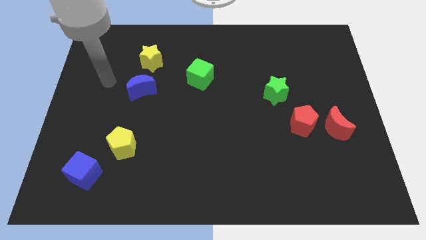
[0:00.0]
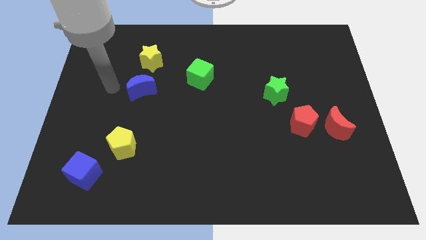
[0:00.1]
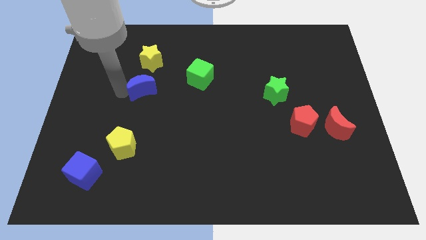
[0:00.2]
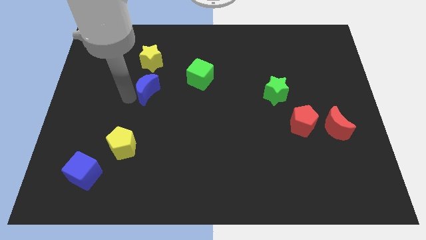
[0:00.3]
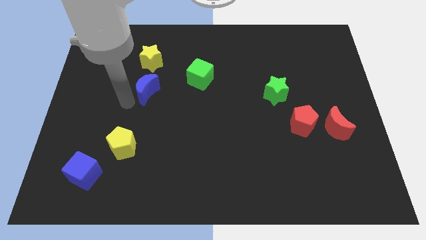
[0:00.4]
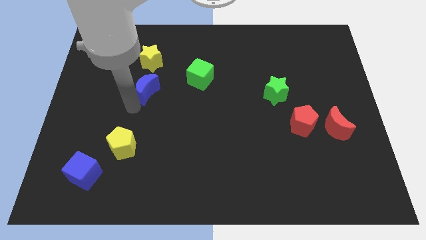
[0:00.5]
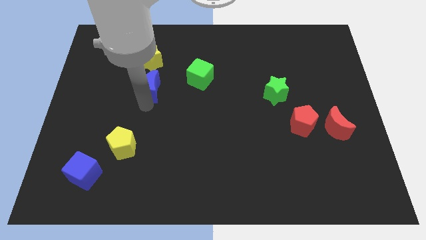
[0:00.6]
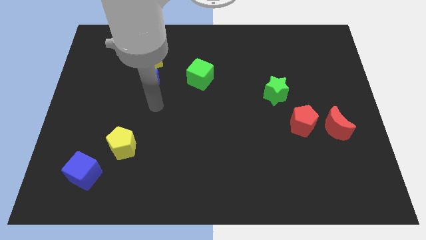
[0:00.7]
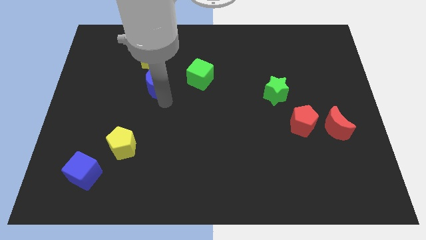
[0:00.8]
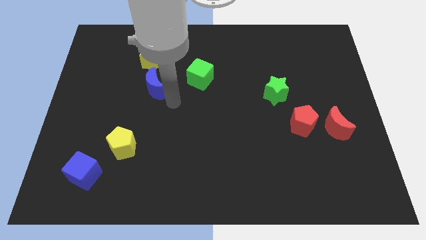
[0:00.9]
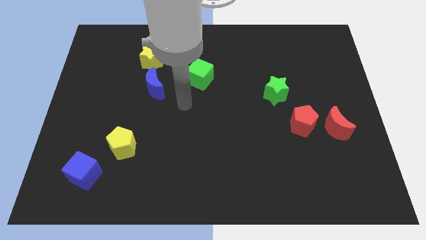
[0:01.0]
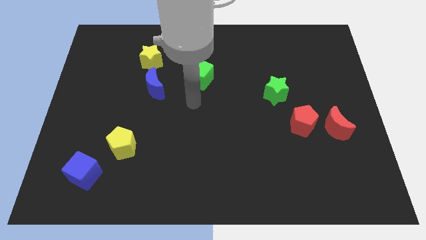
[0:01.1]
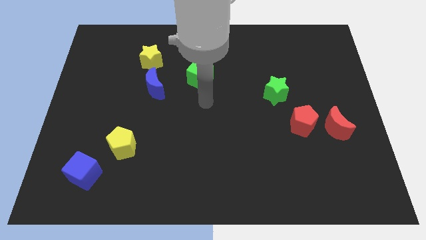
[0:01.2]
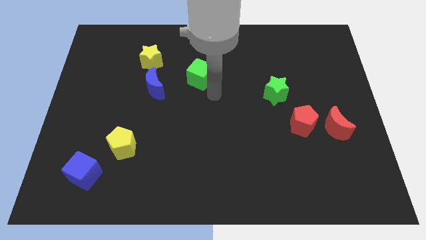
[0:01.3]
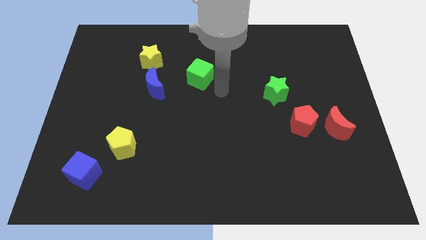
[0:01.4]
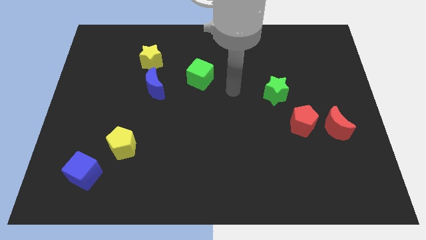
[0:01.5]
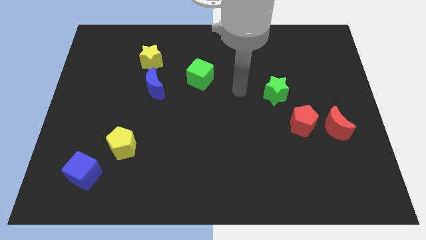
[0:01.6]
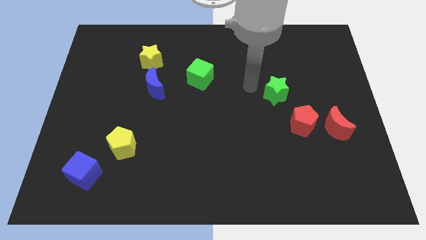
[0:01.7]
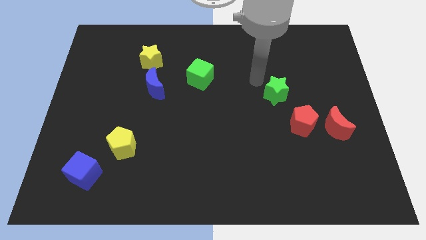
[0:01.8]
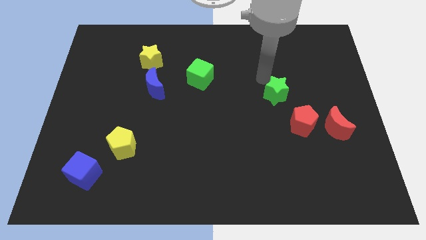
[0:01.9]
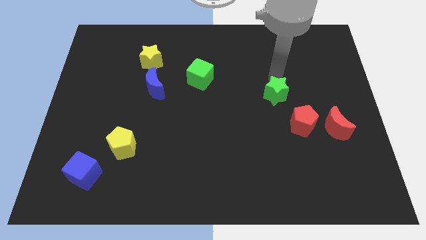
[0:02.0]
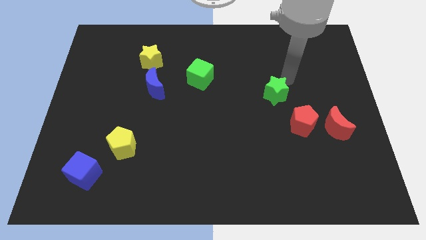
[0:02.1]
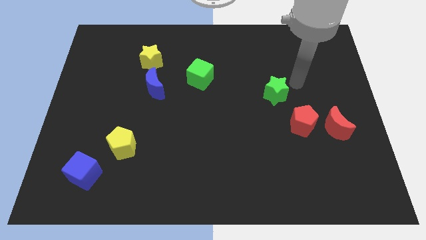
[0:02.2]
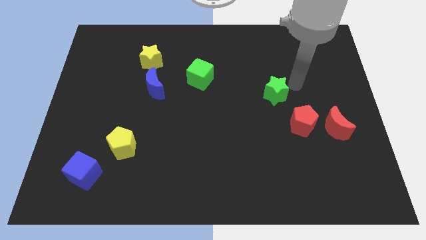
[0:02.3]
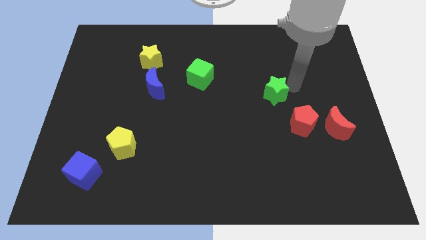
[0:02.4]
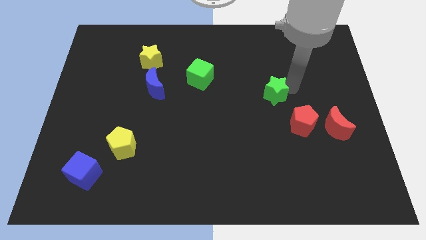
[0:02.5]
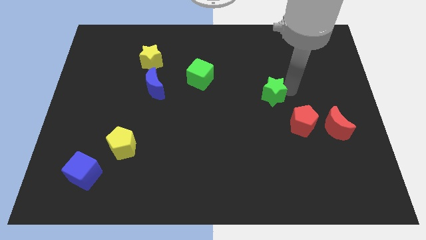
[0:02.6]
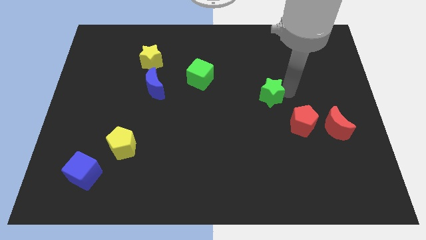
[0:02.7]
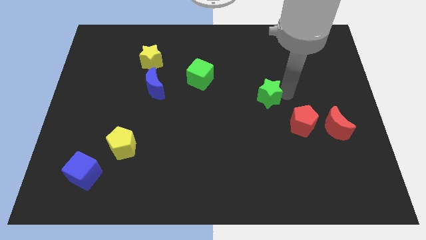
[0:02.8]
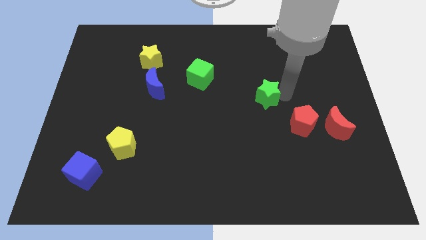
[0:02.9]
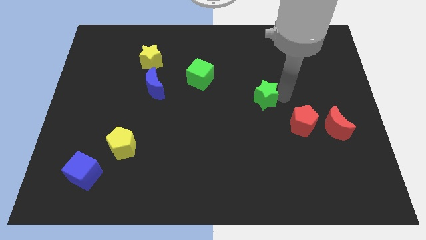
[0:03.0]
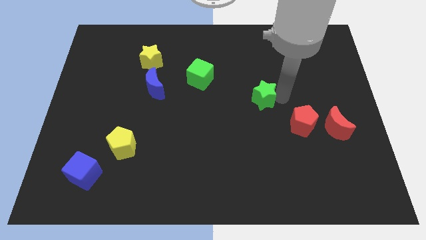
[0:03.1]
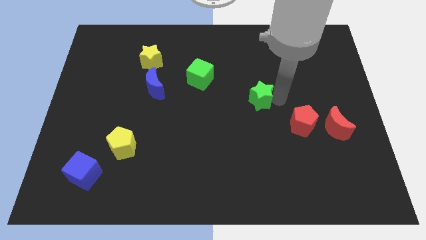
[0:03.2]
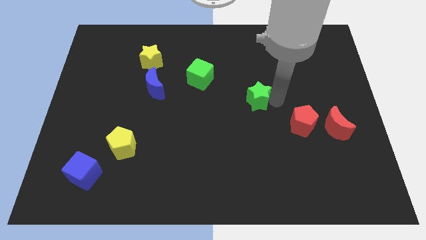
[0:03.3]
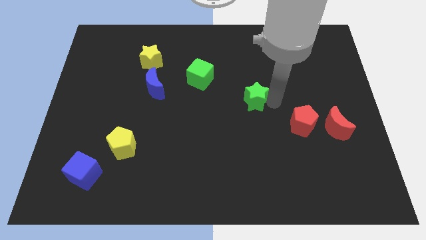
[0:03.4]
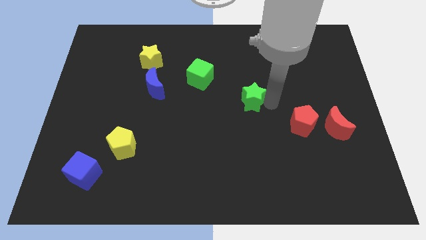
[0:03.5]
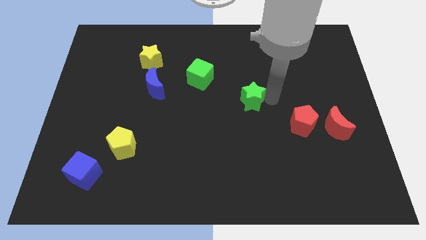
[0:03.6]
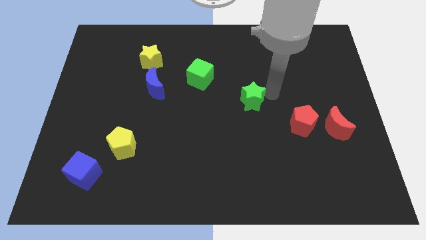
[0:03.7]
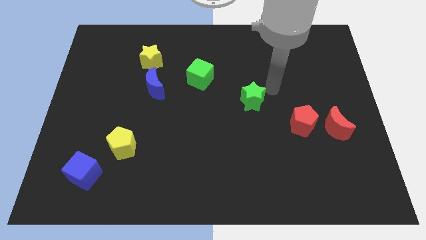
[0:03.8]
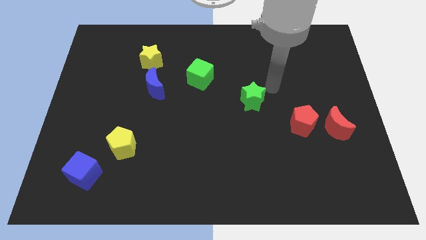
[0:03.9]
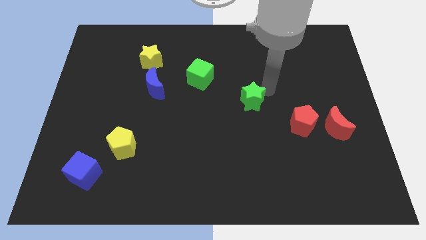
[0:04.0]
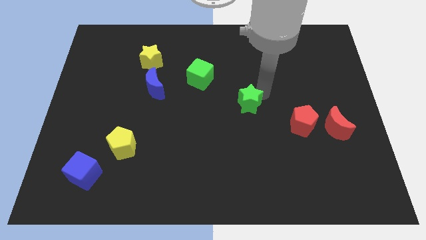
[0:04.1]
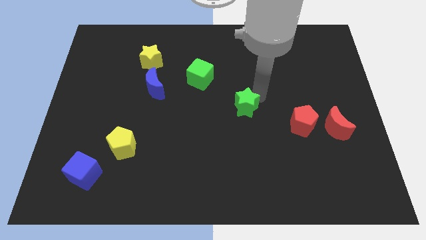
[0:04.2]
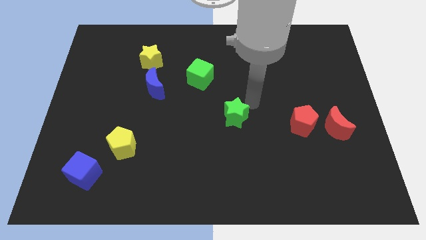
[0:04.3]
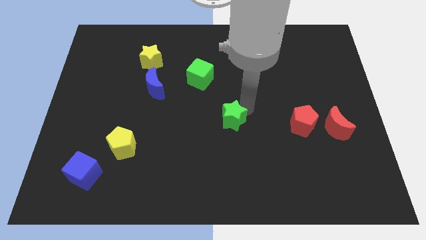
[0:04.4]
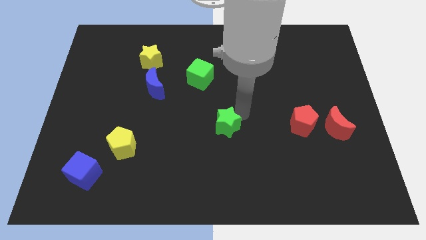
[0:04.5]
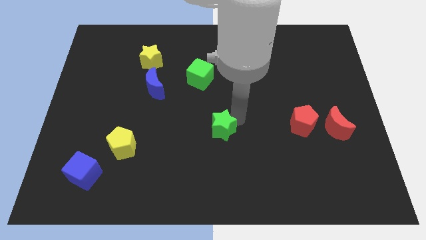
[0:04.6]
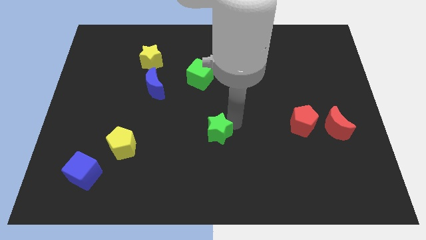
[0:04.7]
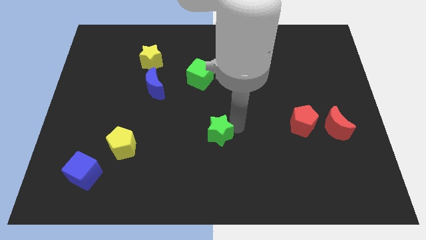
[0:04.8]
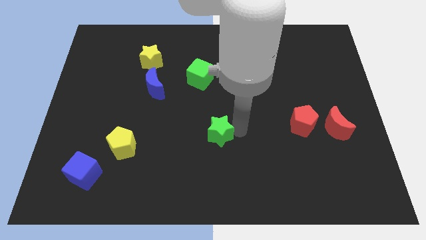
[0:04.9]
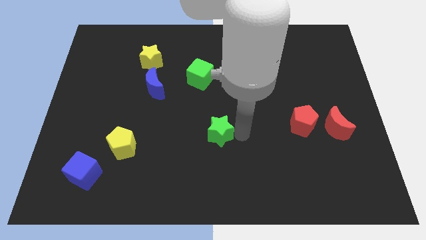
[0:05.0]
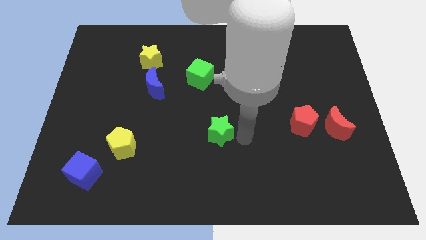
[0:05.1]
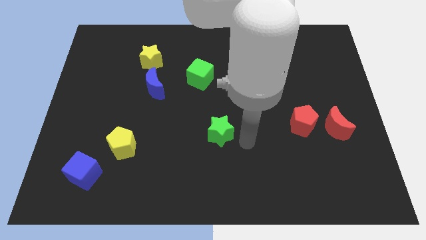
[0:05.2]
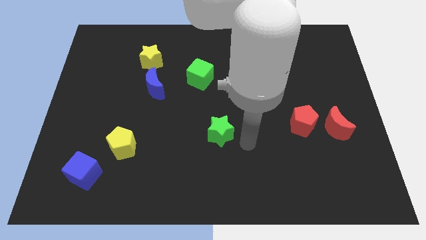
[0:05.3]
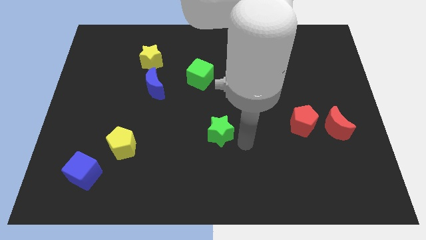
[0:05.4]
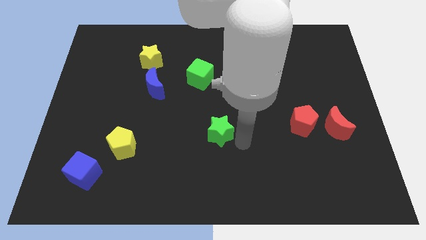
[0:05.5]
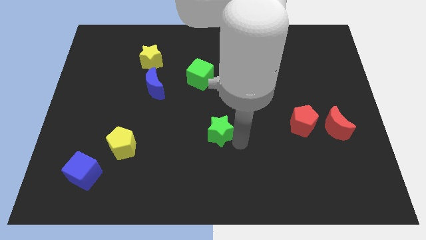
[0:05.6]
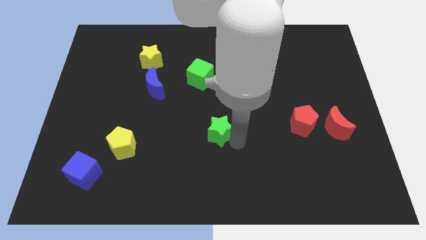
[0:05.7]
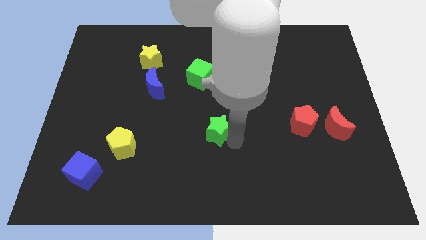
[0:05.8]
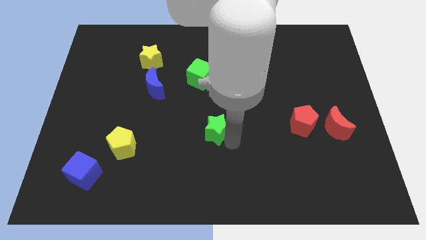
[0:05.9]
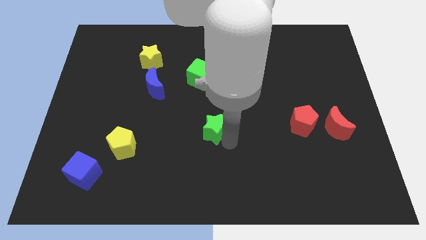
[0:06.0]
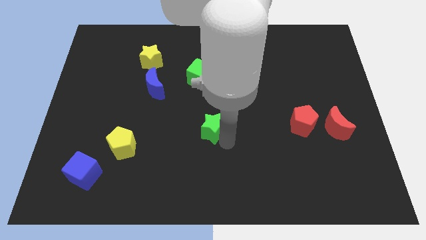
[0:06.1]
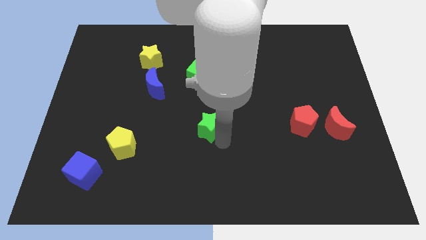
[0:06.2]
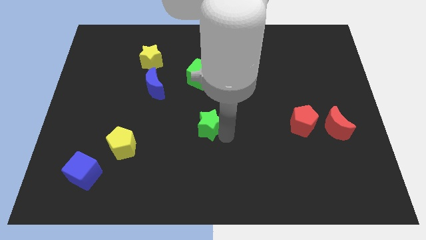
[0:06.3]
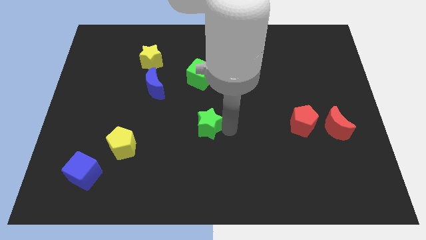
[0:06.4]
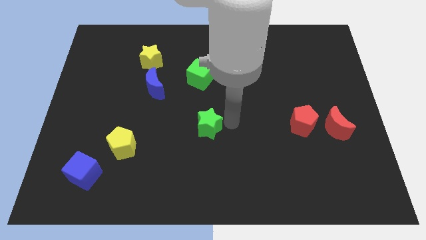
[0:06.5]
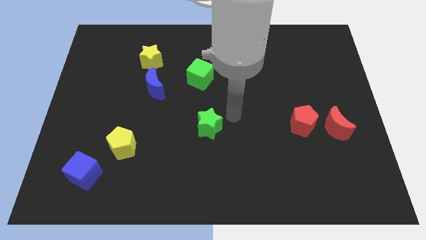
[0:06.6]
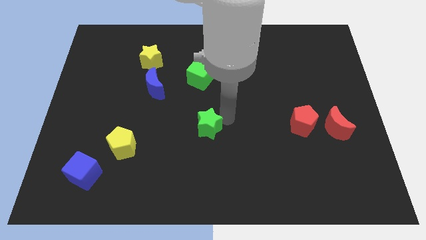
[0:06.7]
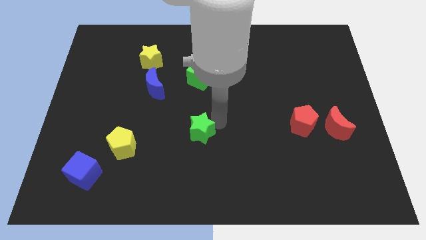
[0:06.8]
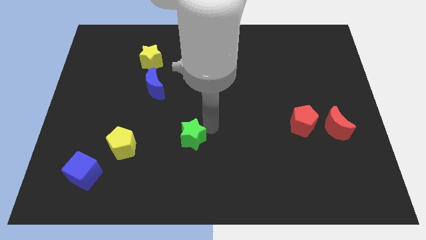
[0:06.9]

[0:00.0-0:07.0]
slide the green star to the right side of the yellow pentagon

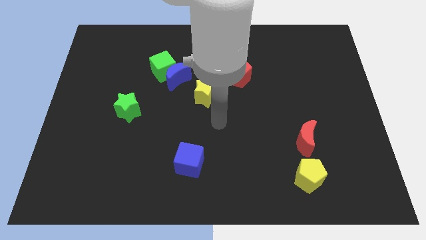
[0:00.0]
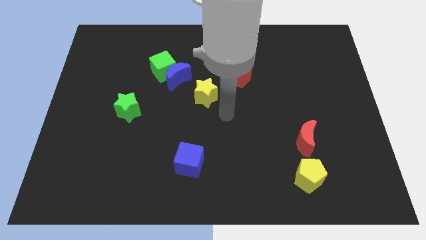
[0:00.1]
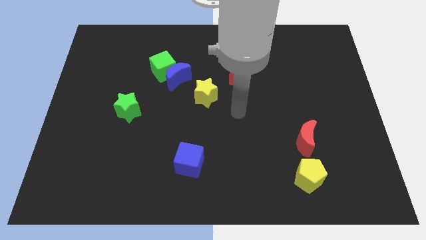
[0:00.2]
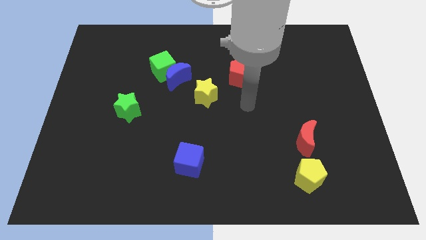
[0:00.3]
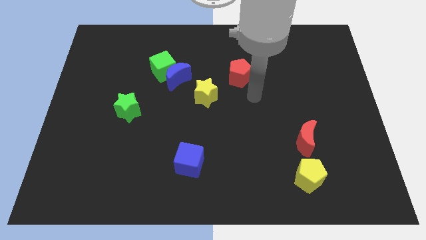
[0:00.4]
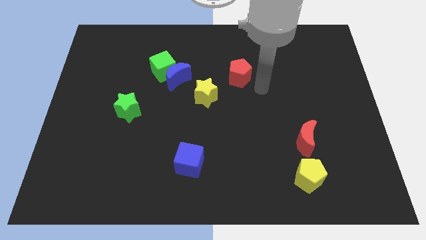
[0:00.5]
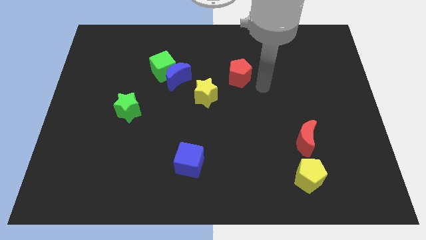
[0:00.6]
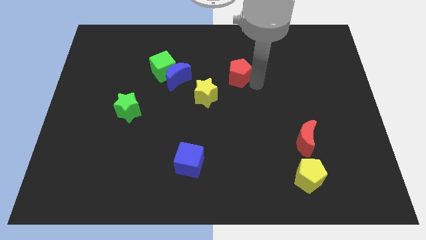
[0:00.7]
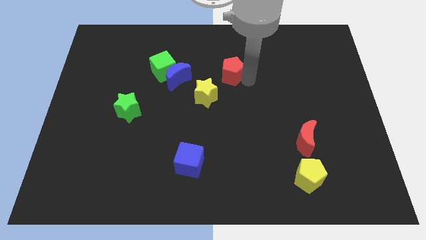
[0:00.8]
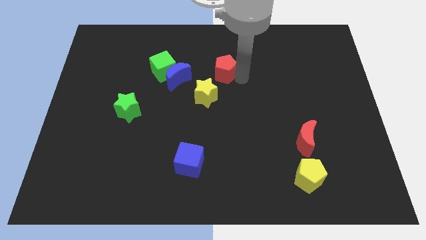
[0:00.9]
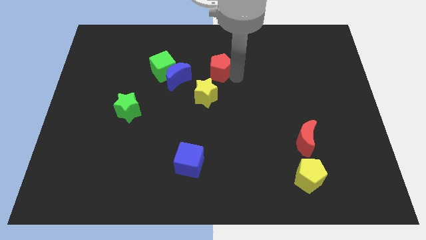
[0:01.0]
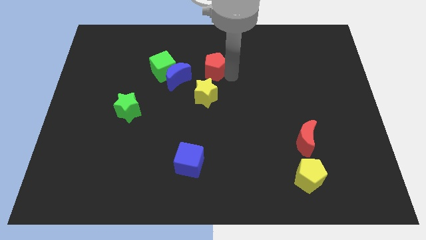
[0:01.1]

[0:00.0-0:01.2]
slide the red pentagon to the top right of the blue moon
